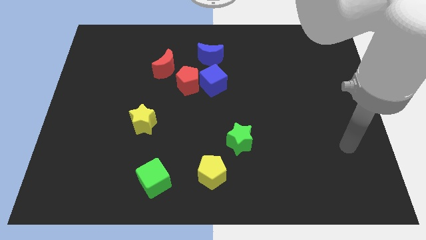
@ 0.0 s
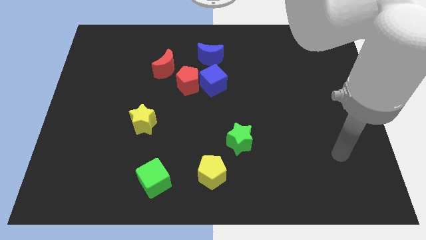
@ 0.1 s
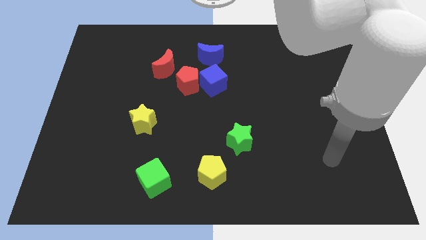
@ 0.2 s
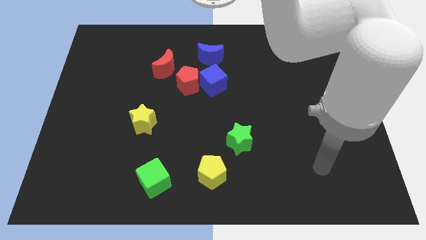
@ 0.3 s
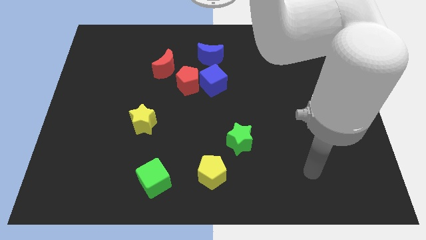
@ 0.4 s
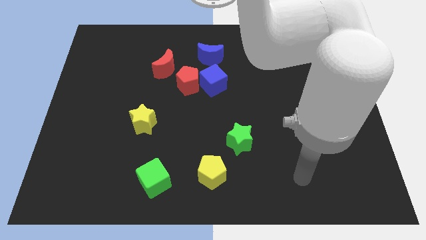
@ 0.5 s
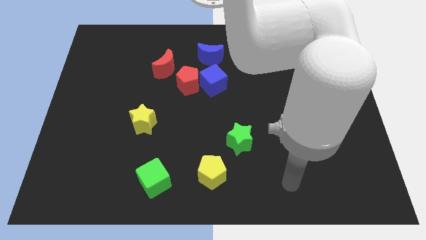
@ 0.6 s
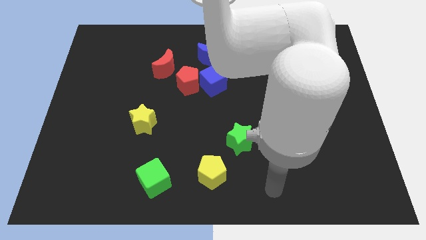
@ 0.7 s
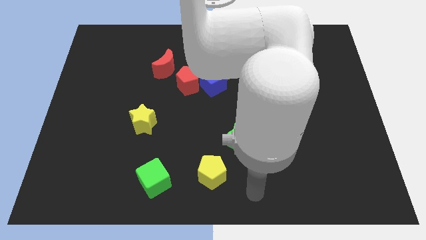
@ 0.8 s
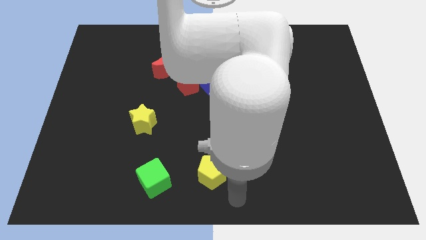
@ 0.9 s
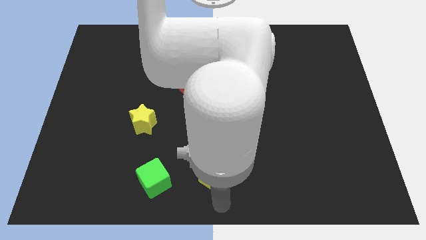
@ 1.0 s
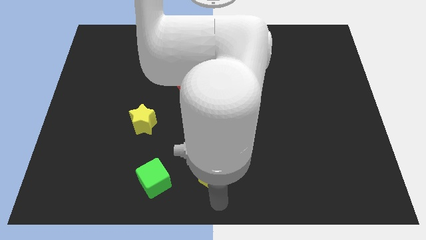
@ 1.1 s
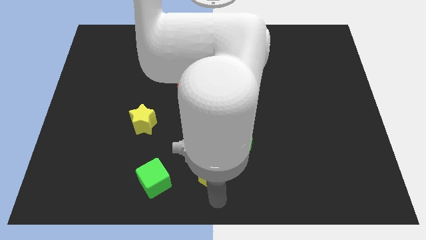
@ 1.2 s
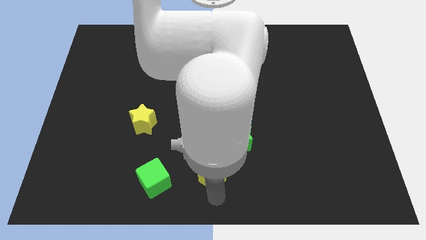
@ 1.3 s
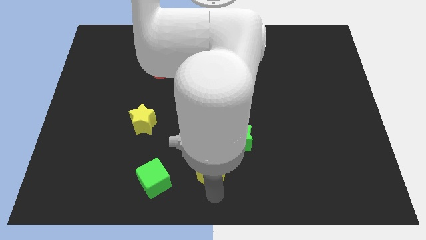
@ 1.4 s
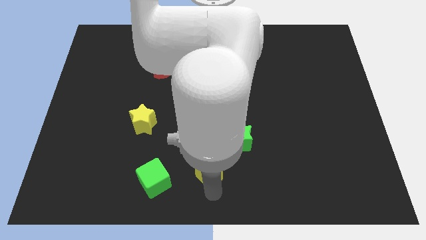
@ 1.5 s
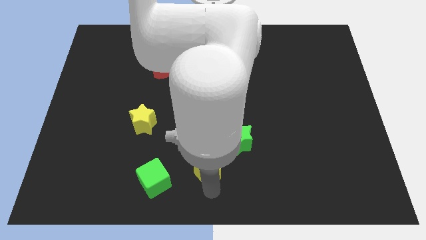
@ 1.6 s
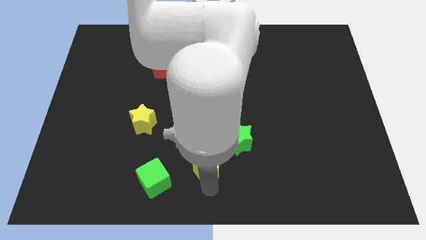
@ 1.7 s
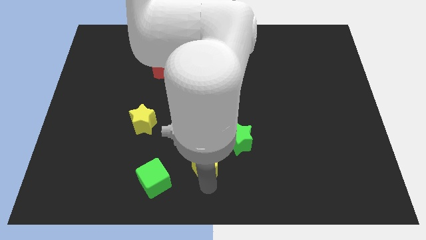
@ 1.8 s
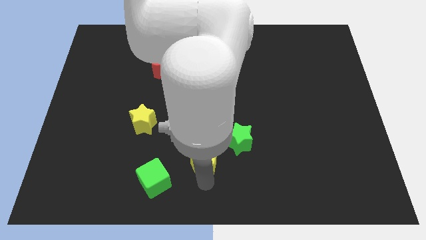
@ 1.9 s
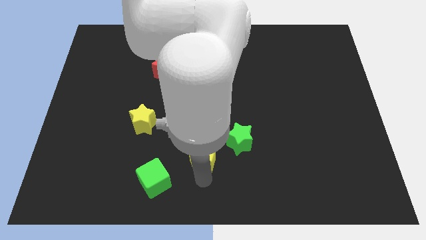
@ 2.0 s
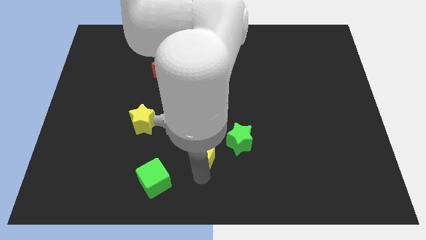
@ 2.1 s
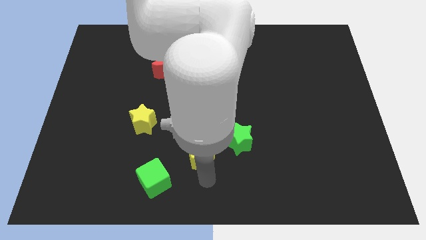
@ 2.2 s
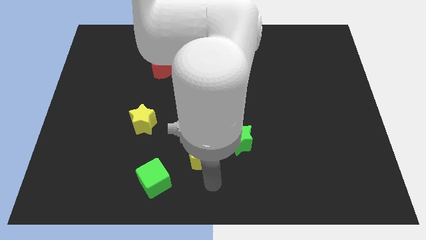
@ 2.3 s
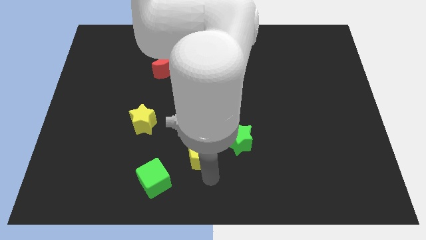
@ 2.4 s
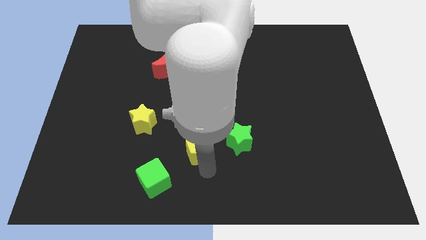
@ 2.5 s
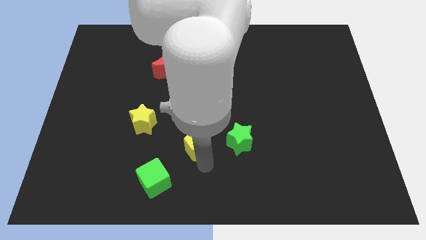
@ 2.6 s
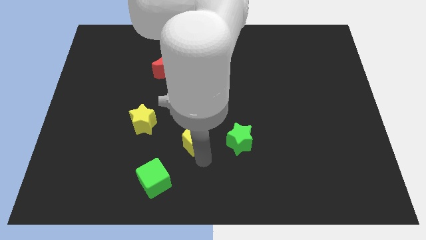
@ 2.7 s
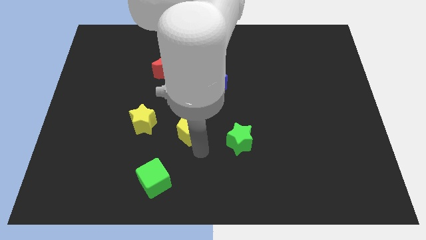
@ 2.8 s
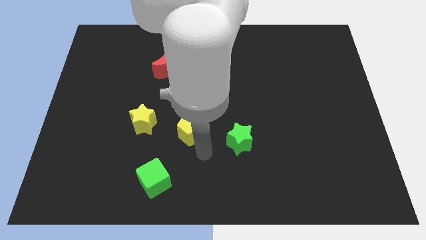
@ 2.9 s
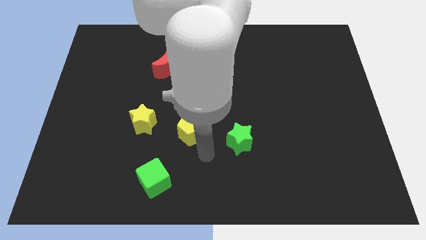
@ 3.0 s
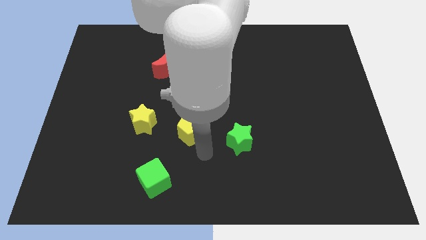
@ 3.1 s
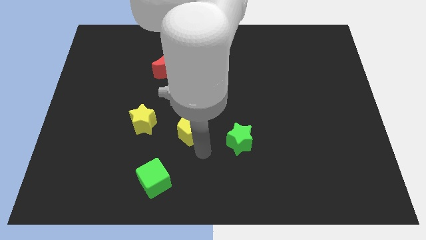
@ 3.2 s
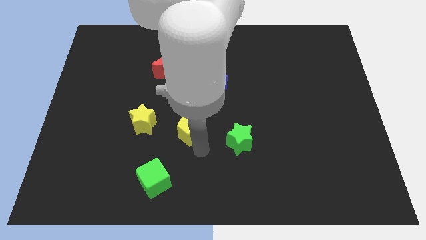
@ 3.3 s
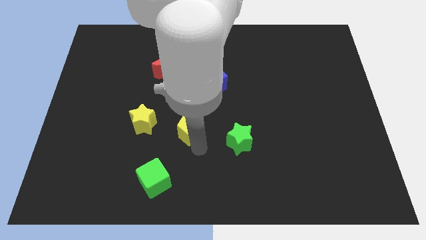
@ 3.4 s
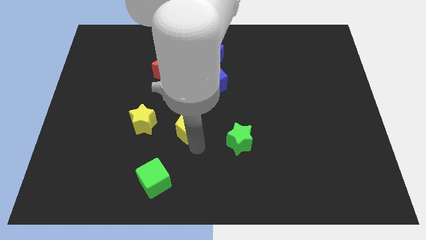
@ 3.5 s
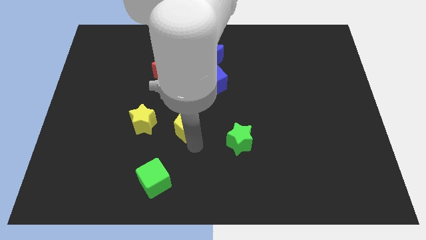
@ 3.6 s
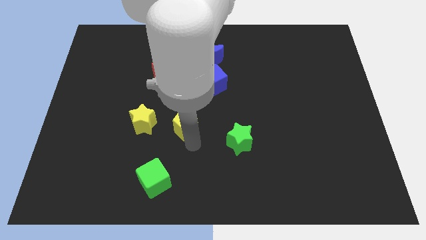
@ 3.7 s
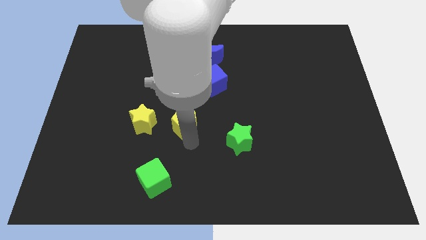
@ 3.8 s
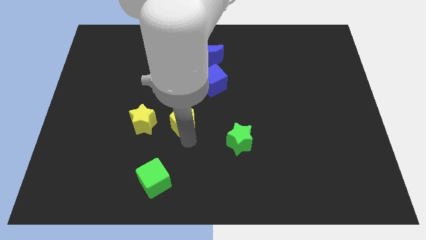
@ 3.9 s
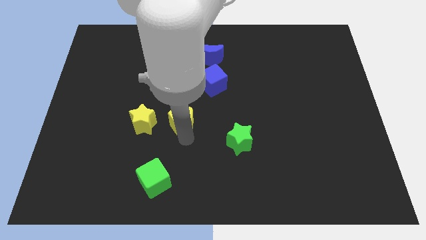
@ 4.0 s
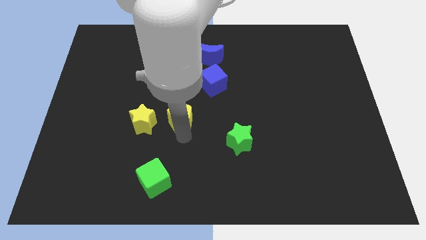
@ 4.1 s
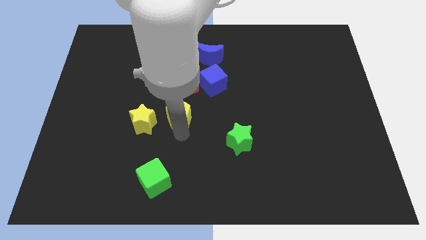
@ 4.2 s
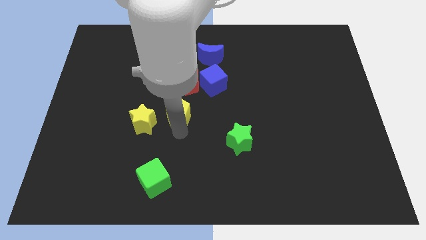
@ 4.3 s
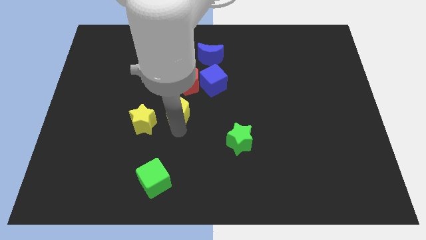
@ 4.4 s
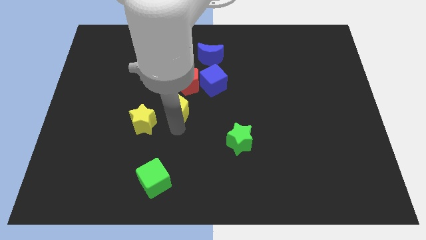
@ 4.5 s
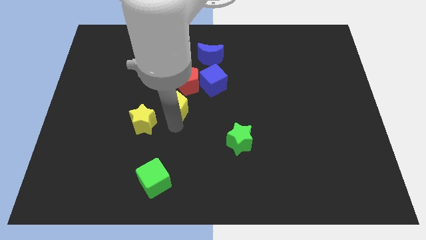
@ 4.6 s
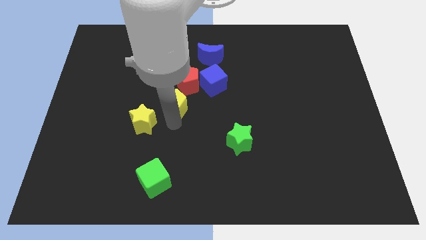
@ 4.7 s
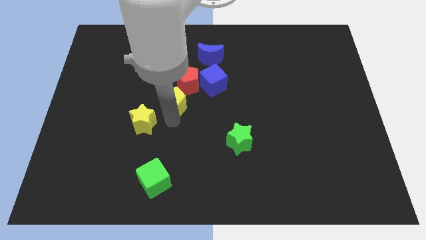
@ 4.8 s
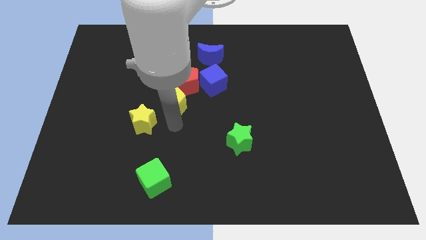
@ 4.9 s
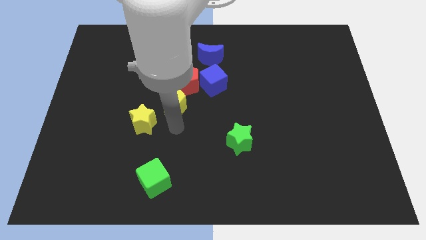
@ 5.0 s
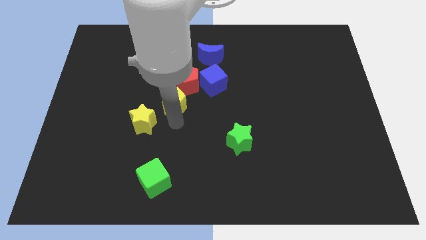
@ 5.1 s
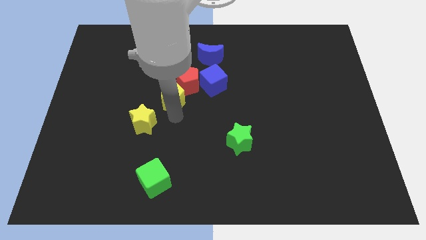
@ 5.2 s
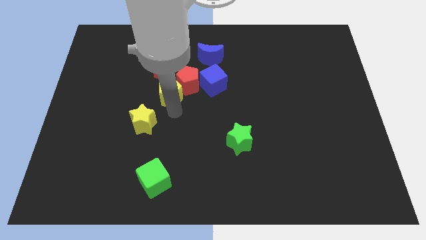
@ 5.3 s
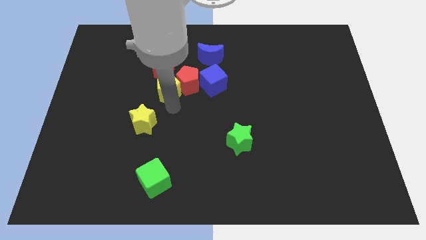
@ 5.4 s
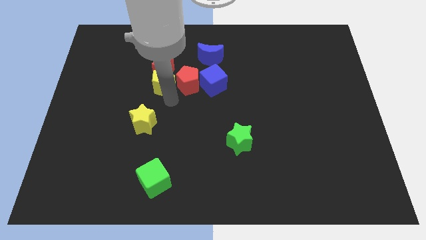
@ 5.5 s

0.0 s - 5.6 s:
move the yellow pentagon towards the red moon
